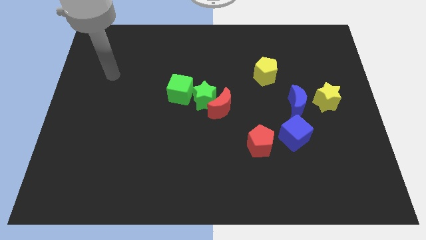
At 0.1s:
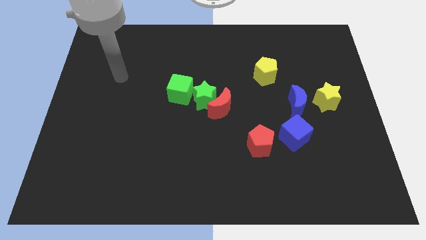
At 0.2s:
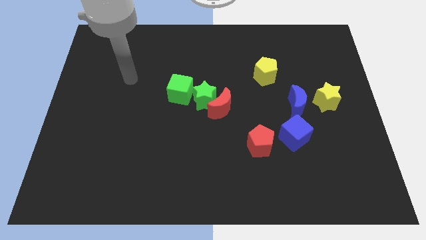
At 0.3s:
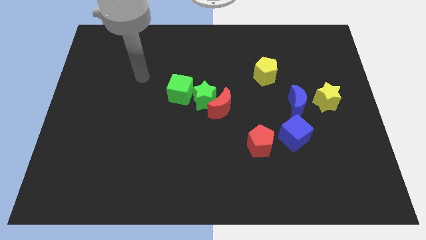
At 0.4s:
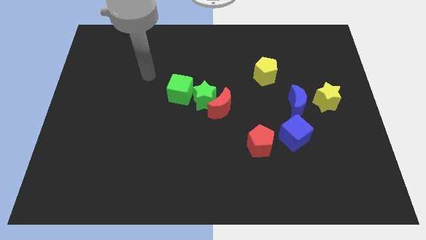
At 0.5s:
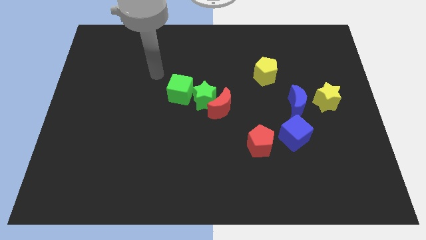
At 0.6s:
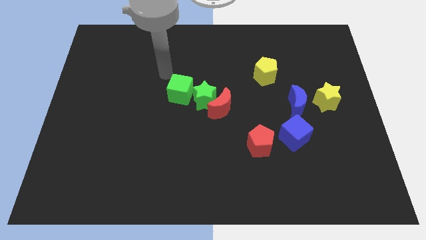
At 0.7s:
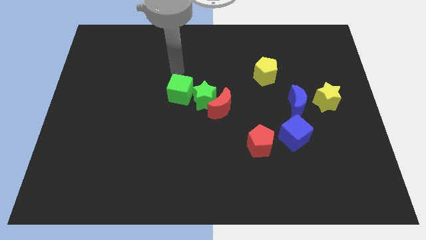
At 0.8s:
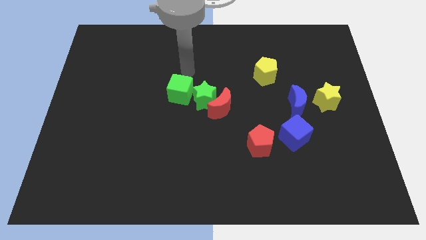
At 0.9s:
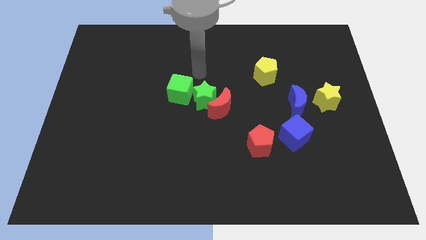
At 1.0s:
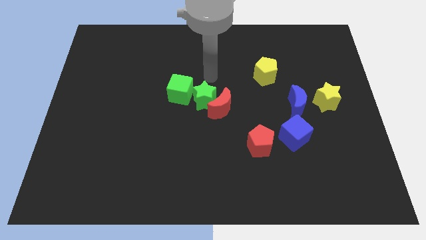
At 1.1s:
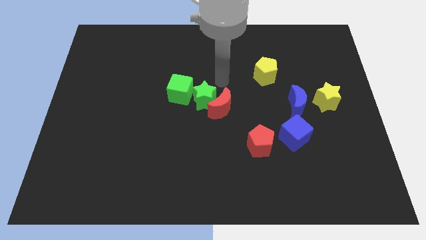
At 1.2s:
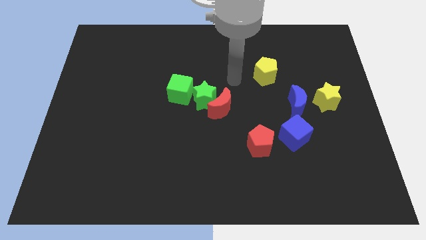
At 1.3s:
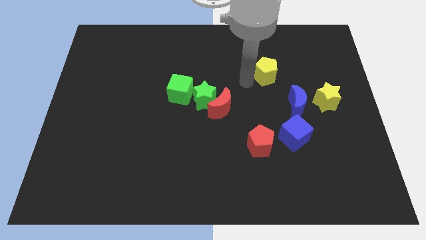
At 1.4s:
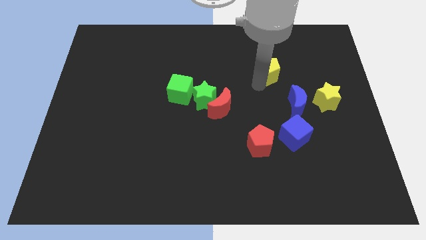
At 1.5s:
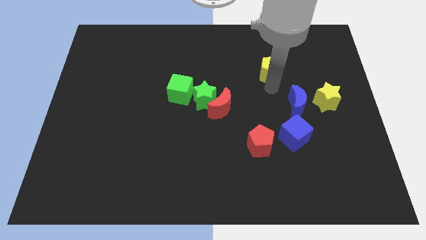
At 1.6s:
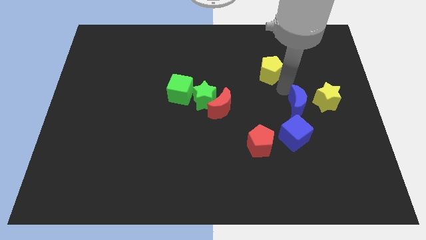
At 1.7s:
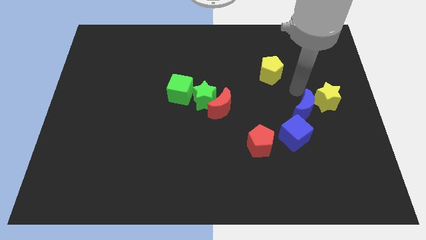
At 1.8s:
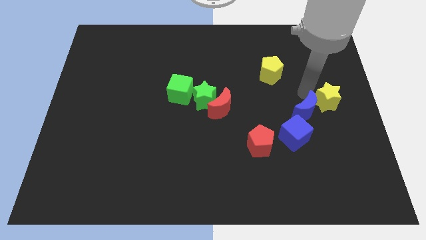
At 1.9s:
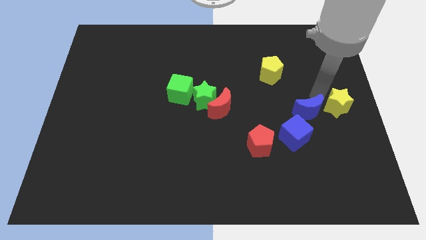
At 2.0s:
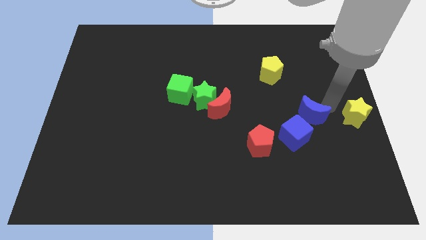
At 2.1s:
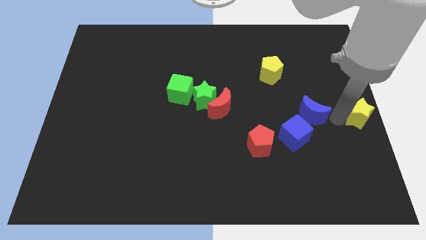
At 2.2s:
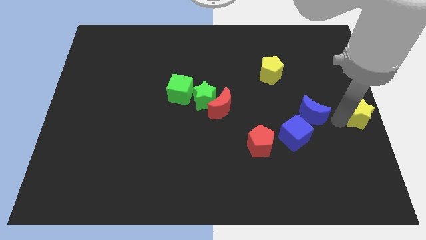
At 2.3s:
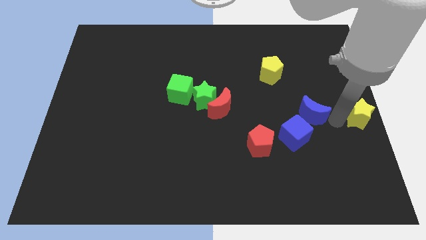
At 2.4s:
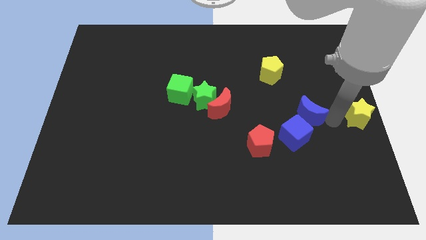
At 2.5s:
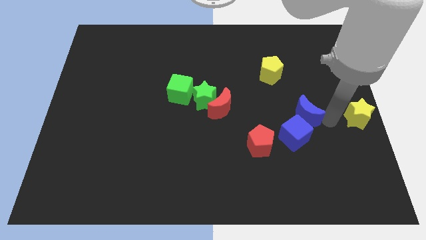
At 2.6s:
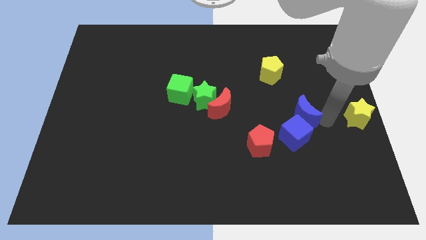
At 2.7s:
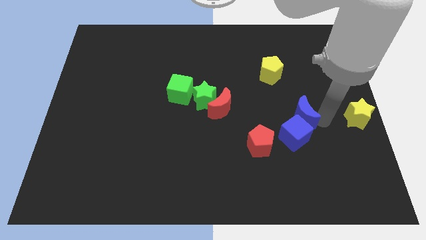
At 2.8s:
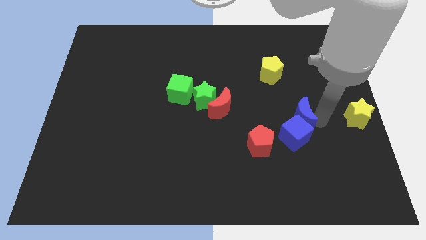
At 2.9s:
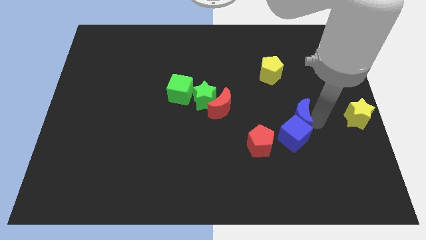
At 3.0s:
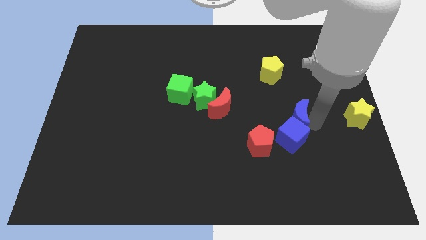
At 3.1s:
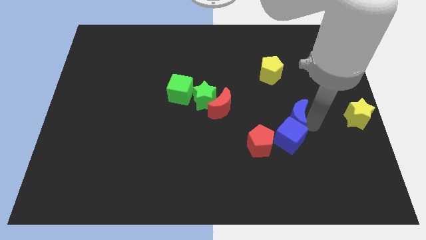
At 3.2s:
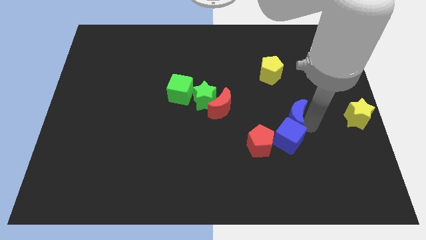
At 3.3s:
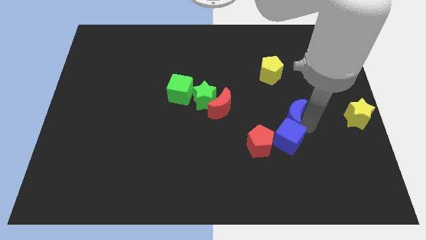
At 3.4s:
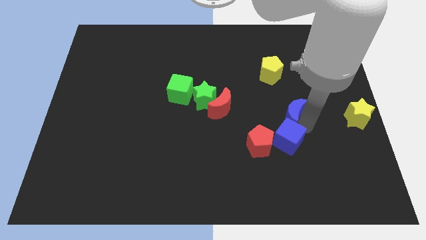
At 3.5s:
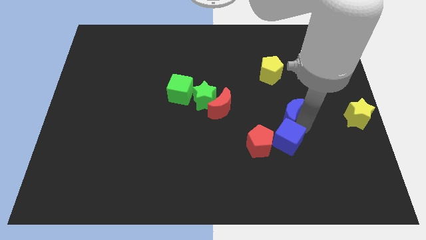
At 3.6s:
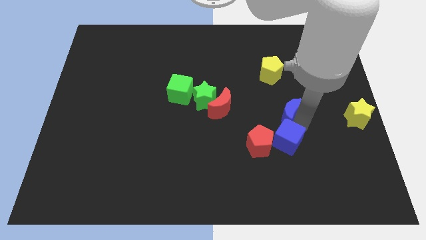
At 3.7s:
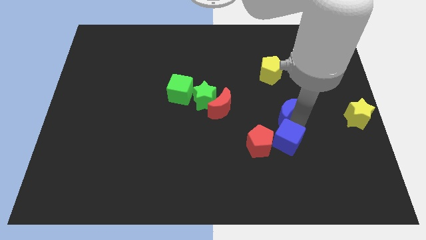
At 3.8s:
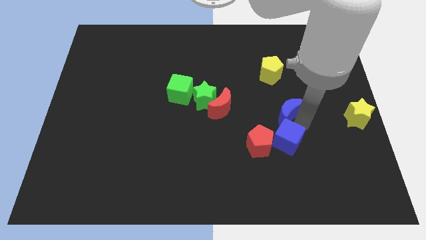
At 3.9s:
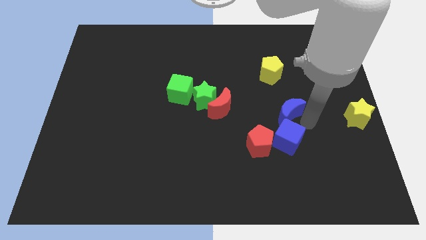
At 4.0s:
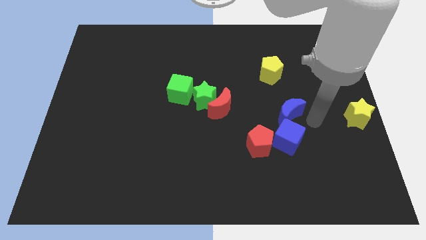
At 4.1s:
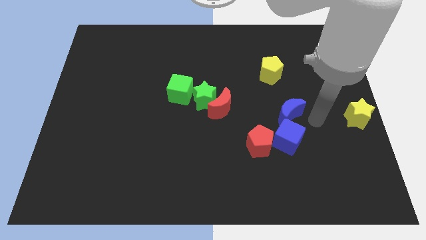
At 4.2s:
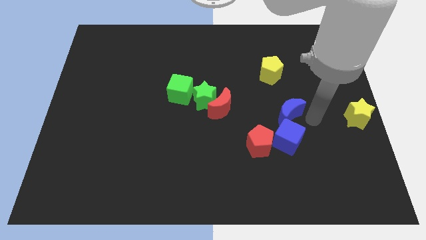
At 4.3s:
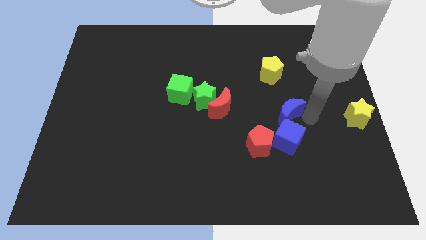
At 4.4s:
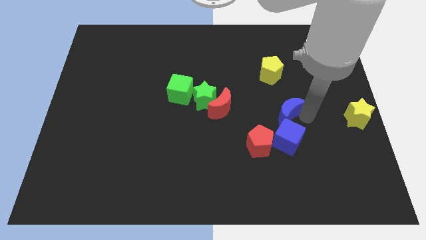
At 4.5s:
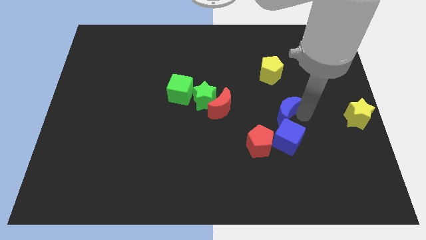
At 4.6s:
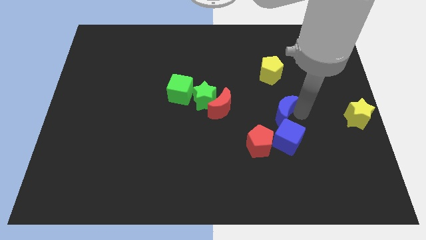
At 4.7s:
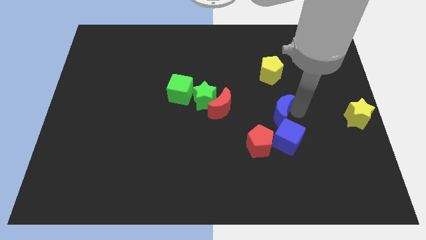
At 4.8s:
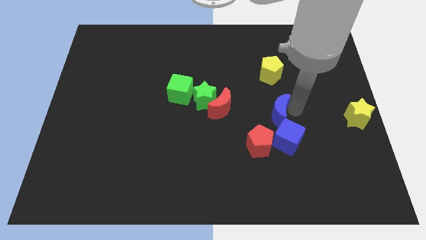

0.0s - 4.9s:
push the blue moon to the top side of the red pentagon

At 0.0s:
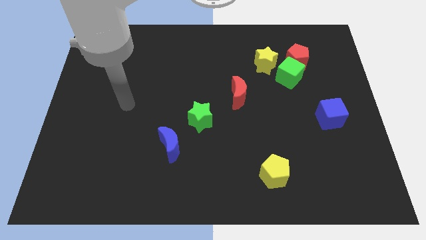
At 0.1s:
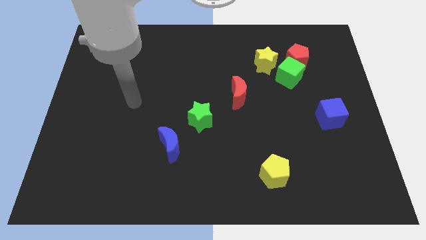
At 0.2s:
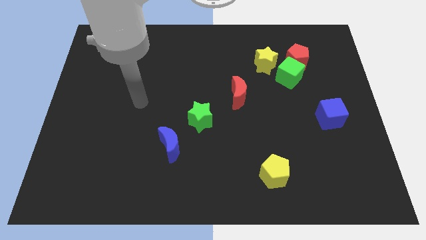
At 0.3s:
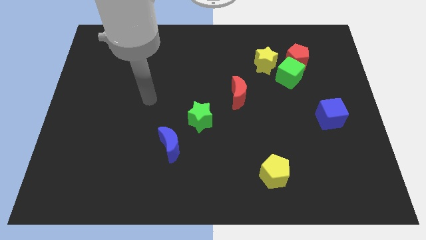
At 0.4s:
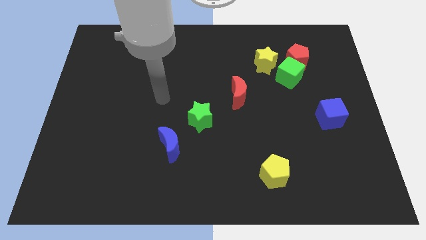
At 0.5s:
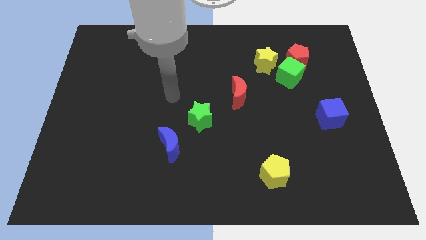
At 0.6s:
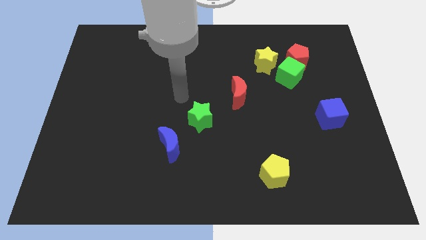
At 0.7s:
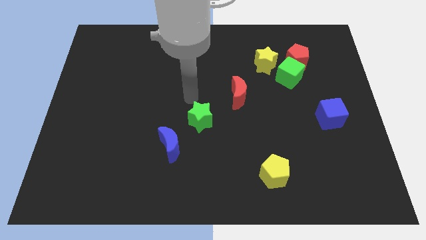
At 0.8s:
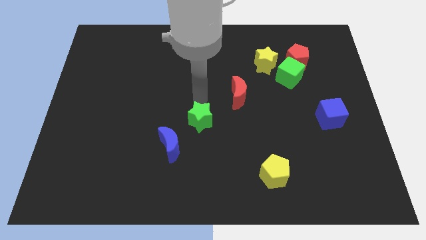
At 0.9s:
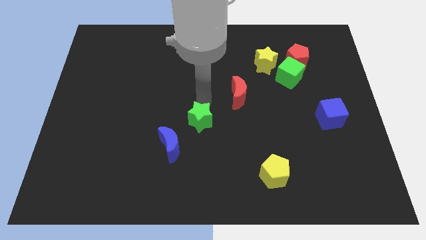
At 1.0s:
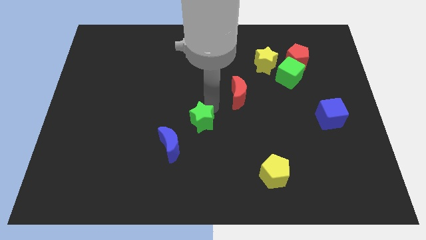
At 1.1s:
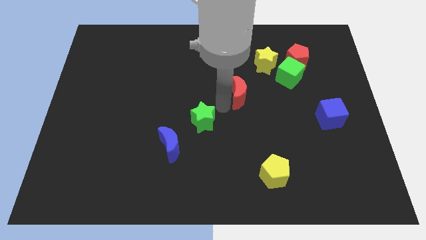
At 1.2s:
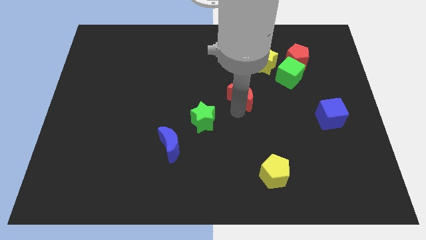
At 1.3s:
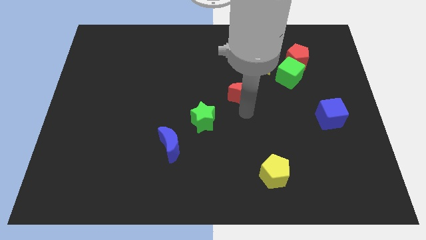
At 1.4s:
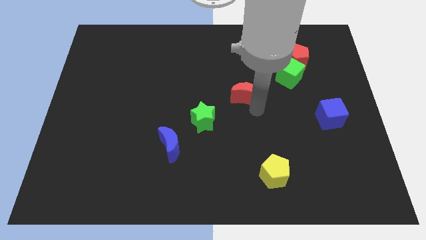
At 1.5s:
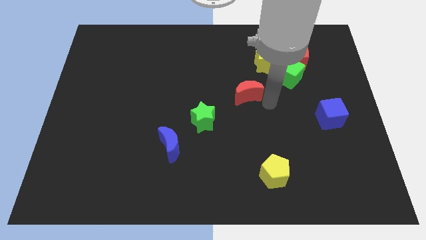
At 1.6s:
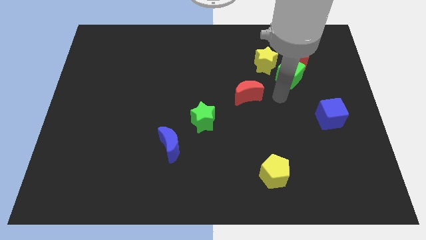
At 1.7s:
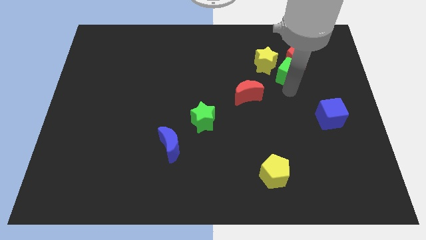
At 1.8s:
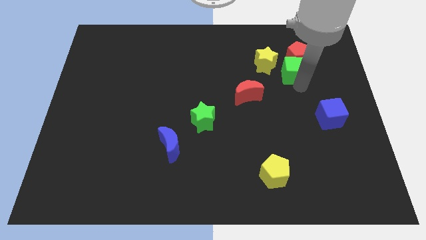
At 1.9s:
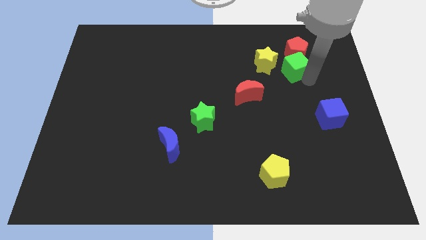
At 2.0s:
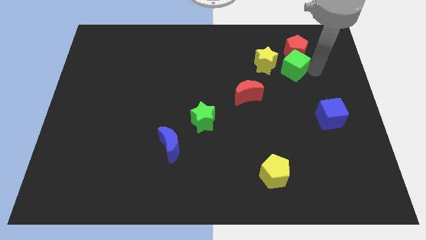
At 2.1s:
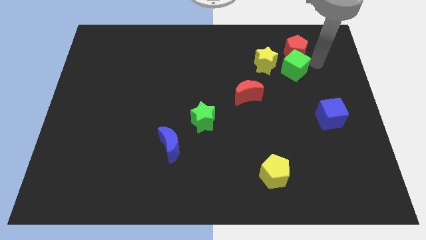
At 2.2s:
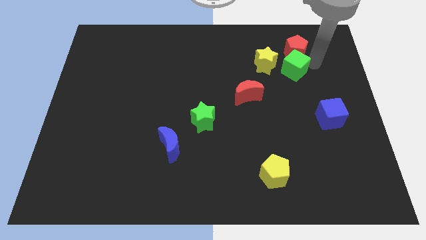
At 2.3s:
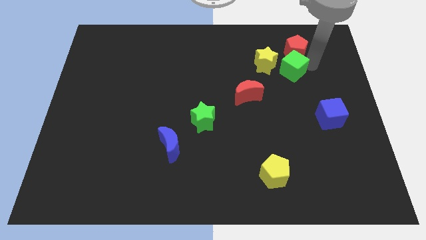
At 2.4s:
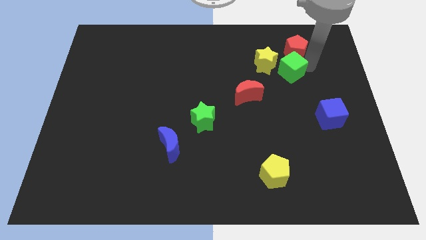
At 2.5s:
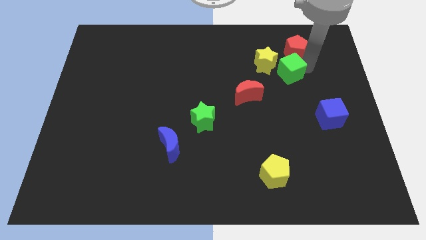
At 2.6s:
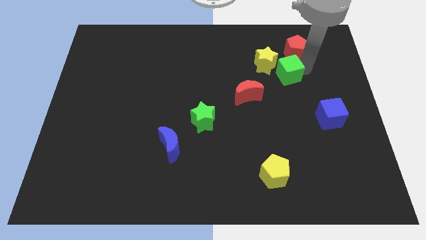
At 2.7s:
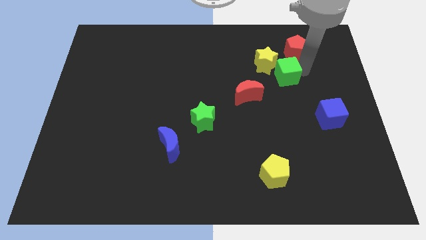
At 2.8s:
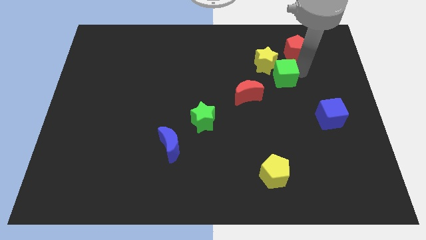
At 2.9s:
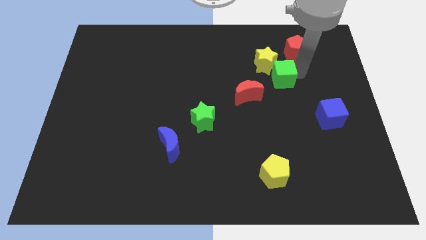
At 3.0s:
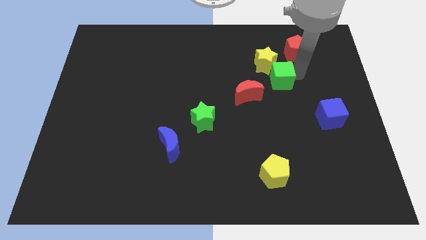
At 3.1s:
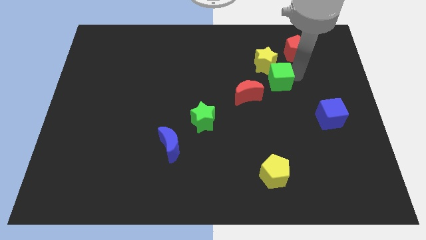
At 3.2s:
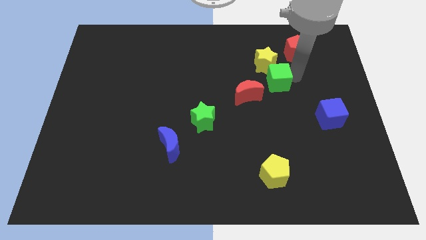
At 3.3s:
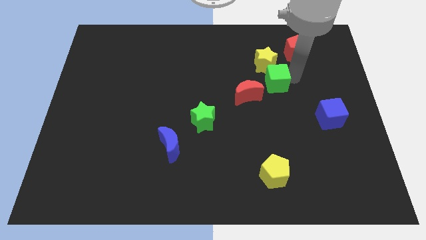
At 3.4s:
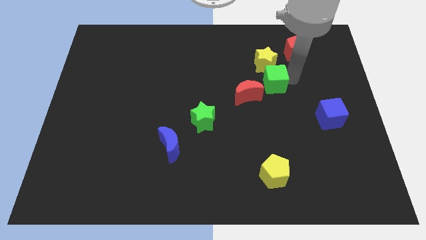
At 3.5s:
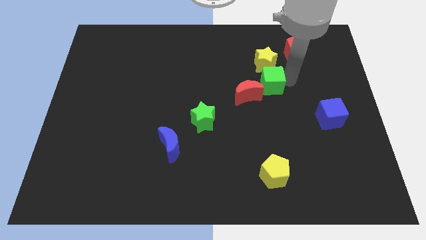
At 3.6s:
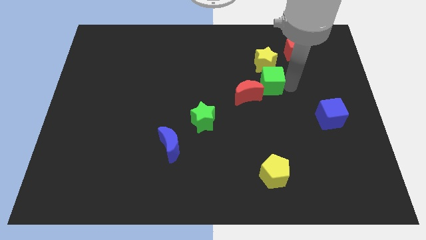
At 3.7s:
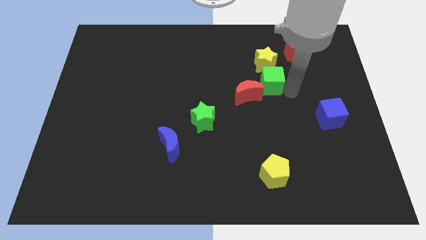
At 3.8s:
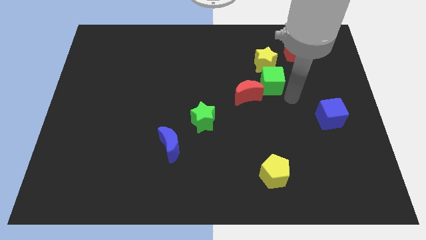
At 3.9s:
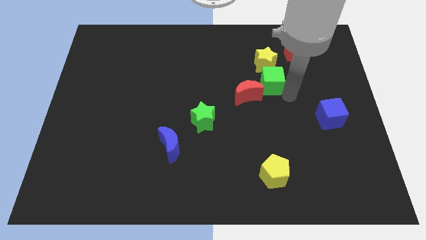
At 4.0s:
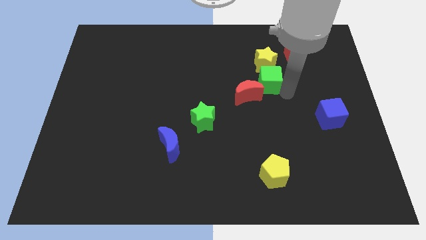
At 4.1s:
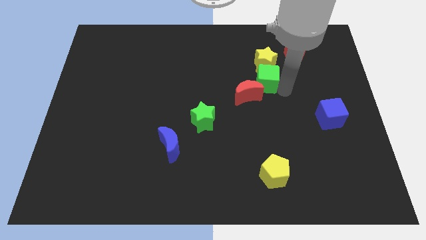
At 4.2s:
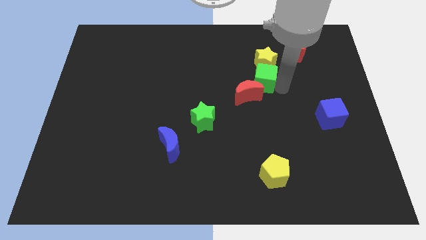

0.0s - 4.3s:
put the green cube to the top side of the red moon
